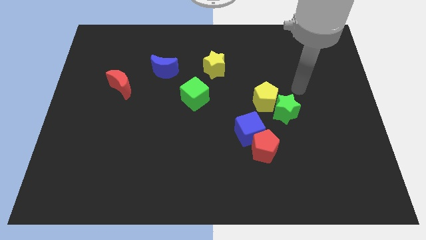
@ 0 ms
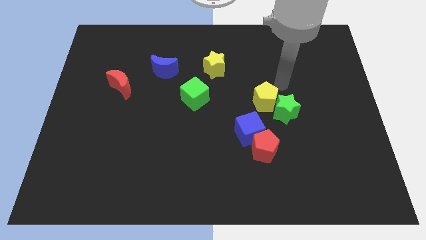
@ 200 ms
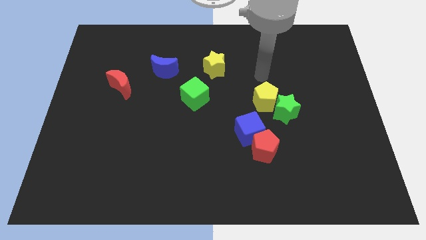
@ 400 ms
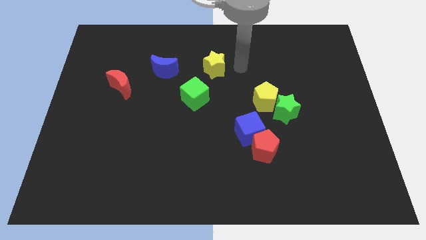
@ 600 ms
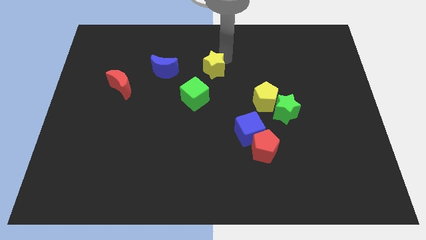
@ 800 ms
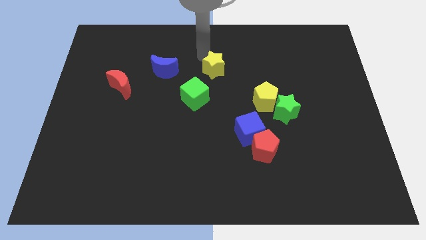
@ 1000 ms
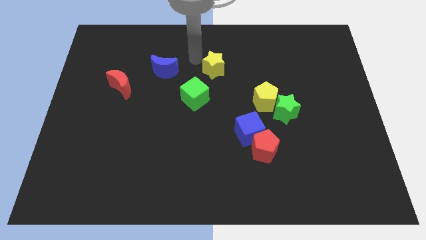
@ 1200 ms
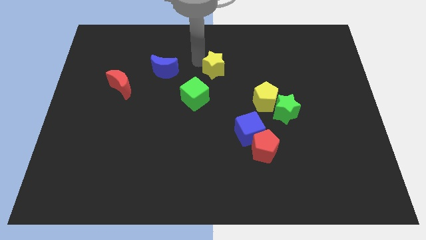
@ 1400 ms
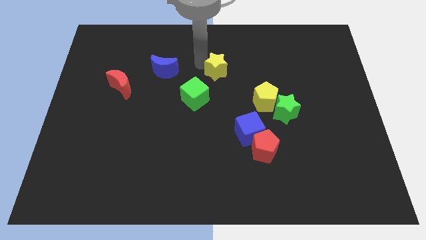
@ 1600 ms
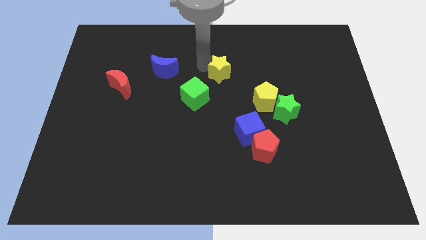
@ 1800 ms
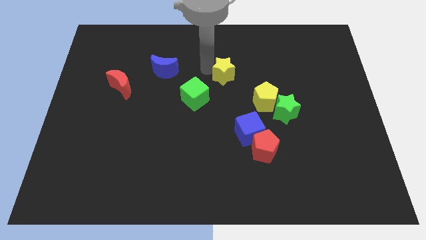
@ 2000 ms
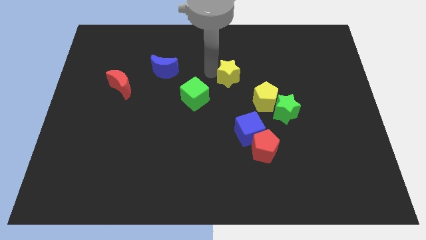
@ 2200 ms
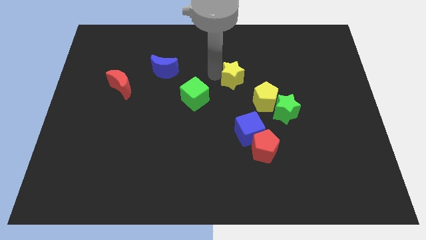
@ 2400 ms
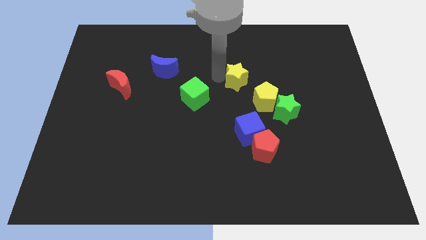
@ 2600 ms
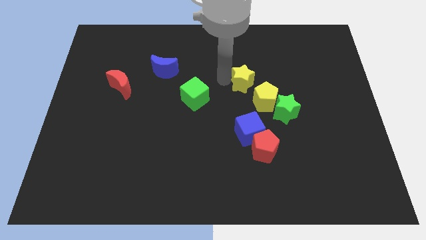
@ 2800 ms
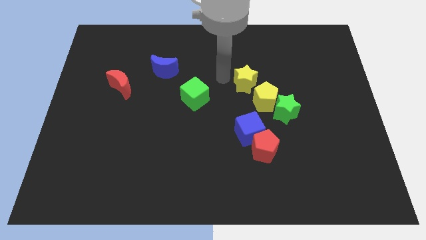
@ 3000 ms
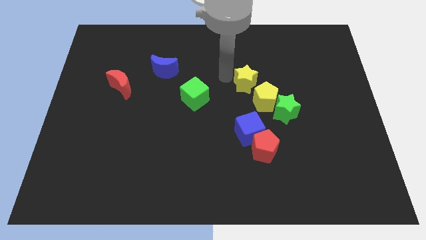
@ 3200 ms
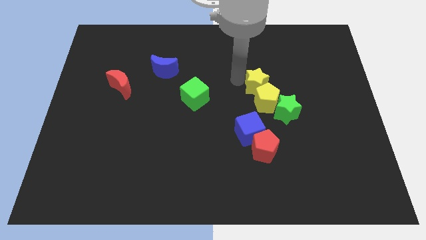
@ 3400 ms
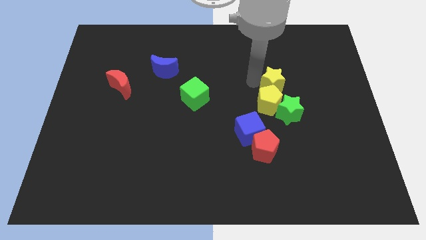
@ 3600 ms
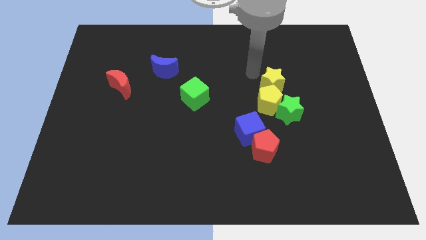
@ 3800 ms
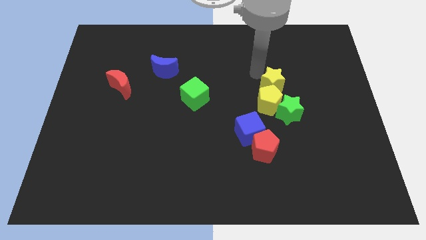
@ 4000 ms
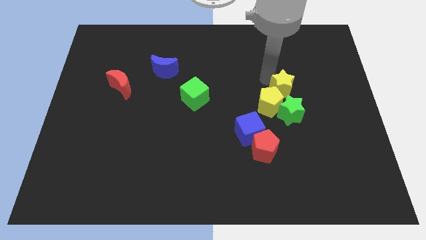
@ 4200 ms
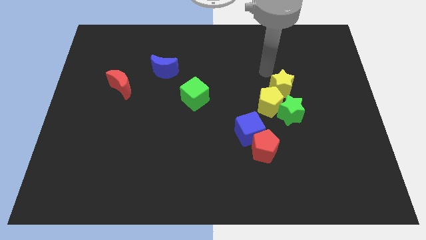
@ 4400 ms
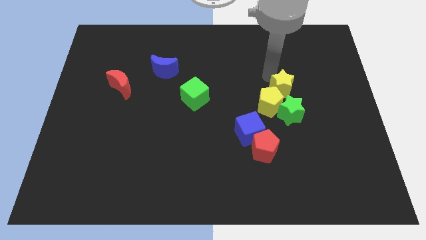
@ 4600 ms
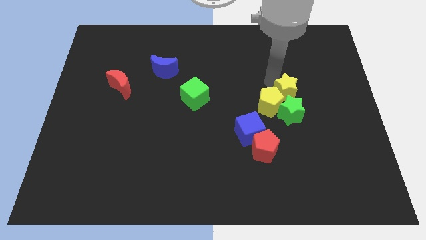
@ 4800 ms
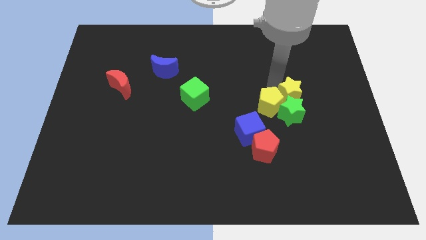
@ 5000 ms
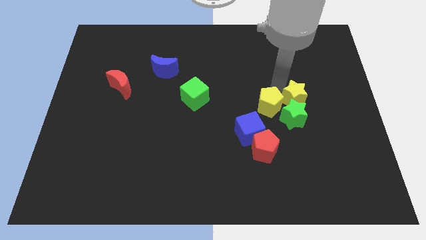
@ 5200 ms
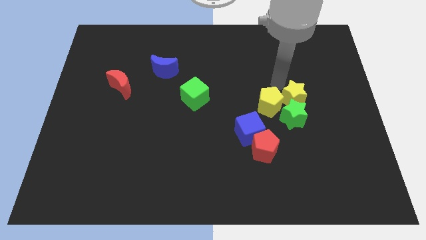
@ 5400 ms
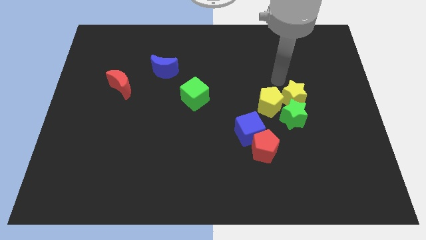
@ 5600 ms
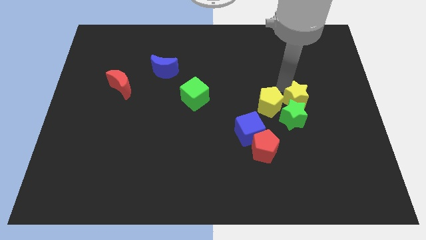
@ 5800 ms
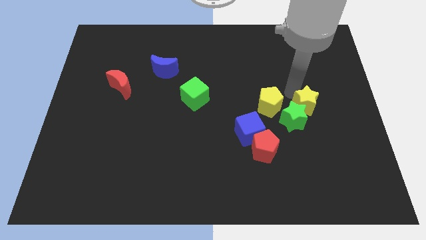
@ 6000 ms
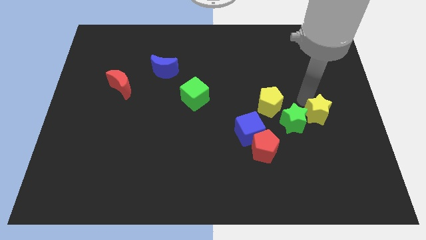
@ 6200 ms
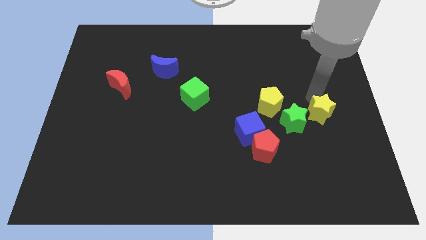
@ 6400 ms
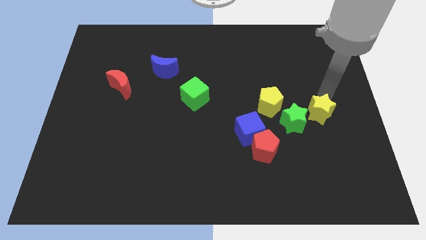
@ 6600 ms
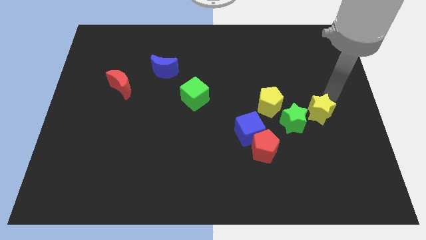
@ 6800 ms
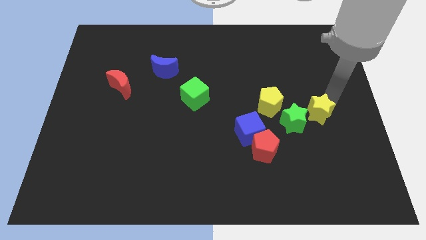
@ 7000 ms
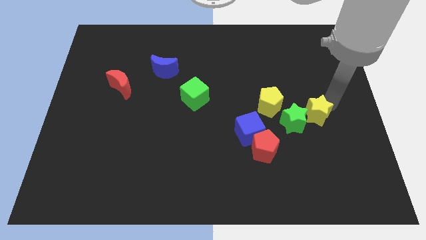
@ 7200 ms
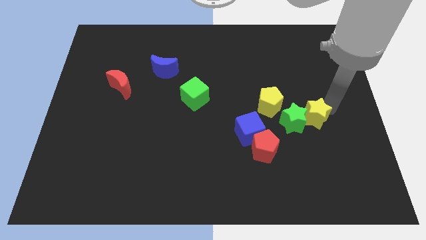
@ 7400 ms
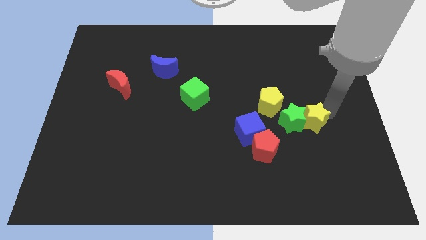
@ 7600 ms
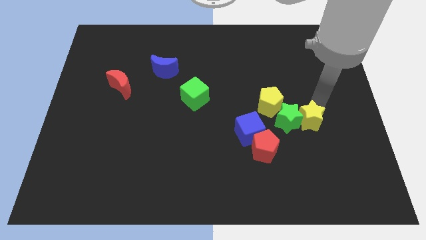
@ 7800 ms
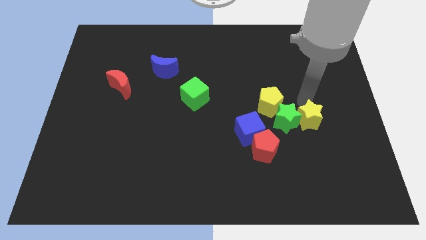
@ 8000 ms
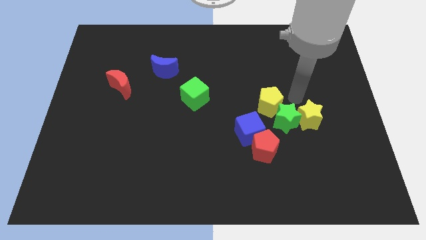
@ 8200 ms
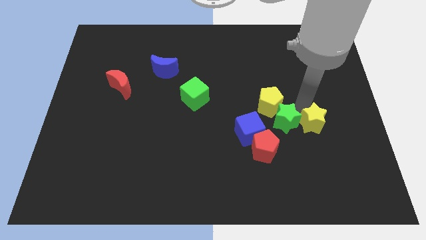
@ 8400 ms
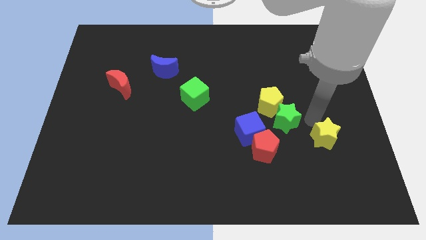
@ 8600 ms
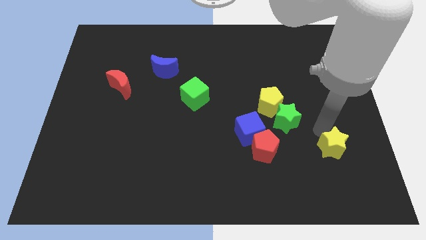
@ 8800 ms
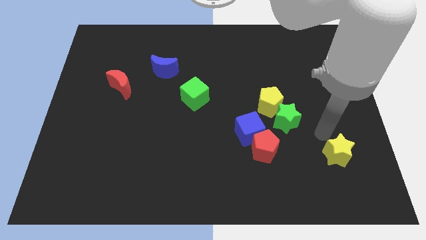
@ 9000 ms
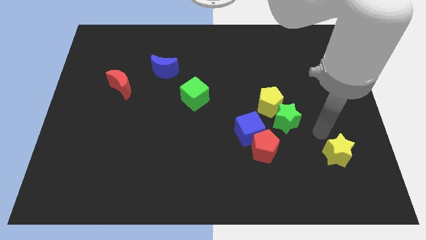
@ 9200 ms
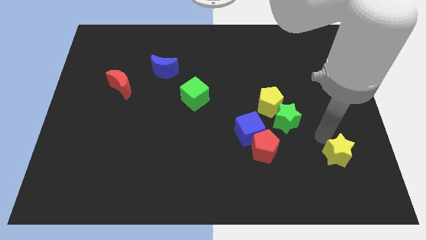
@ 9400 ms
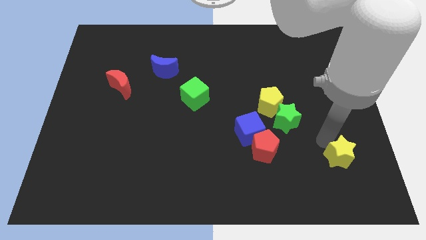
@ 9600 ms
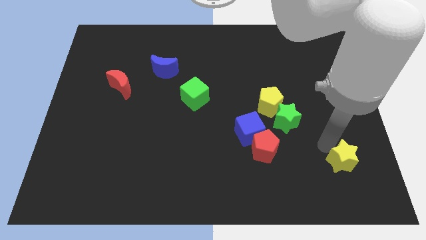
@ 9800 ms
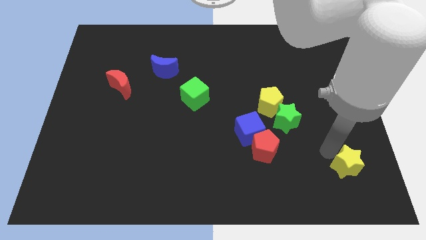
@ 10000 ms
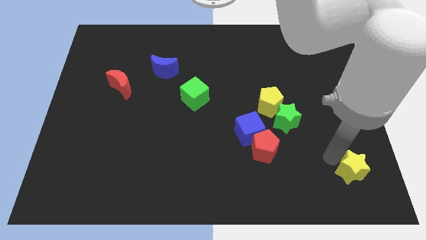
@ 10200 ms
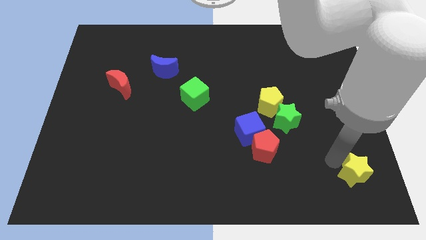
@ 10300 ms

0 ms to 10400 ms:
put the yellow star to the bottom right of the board

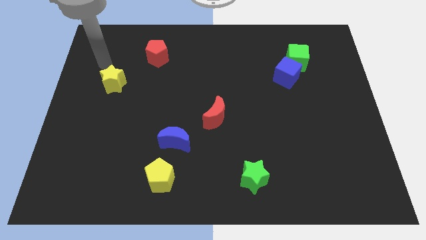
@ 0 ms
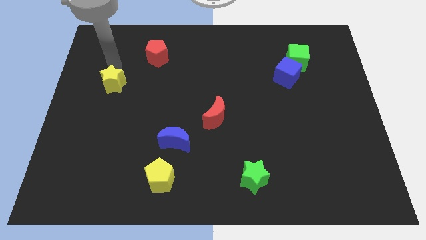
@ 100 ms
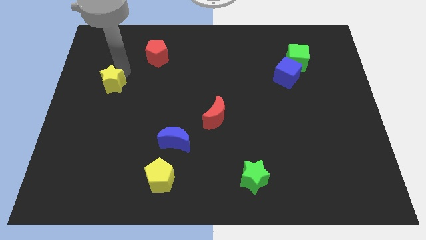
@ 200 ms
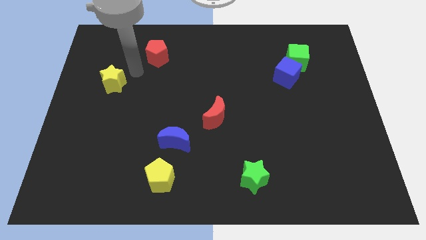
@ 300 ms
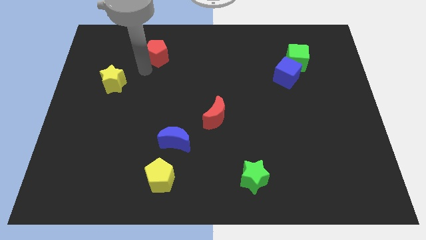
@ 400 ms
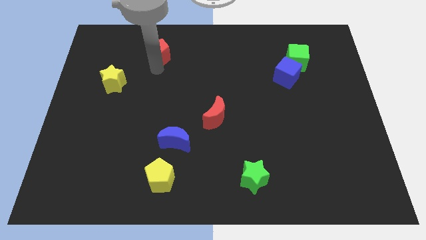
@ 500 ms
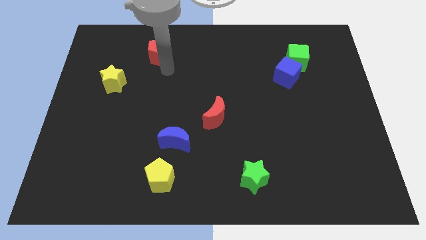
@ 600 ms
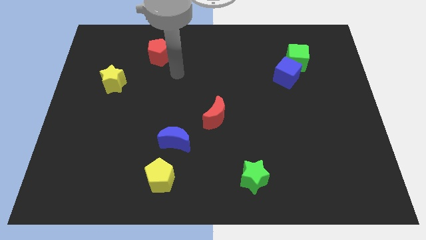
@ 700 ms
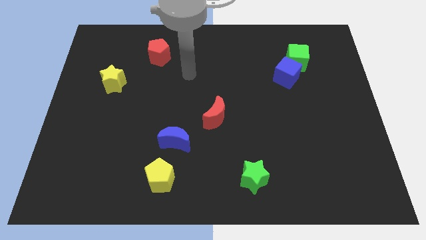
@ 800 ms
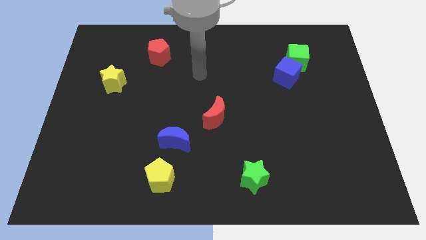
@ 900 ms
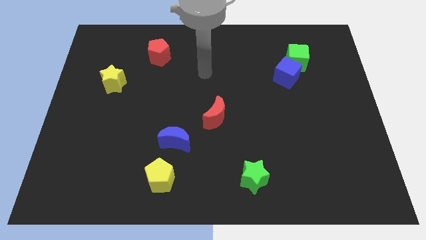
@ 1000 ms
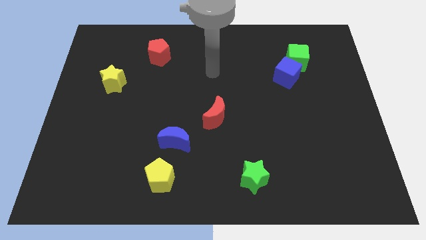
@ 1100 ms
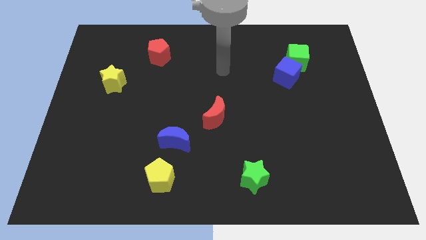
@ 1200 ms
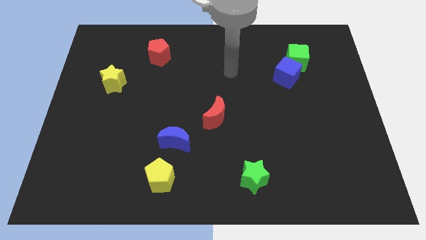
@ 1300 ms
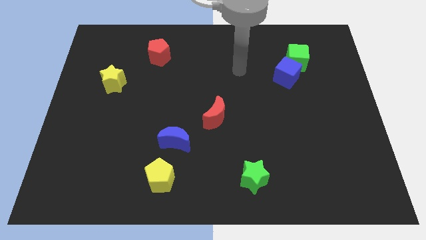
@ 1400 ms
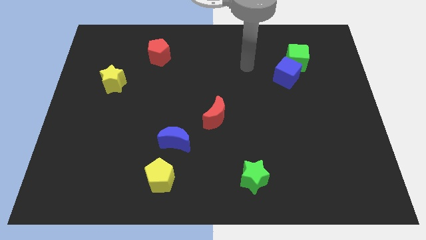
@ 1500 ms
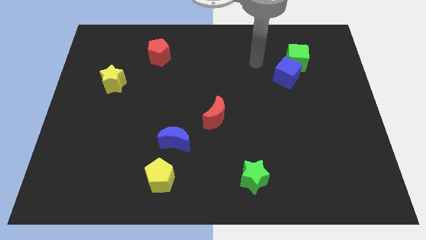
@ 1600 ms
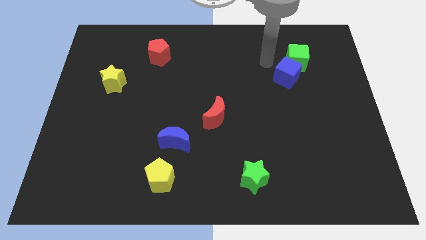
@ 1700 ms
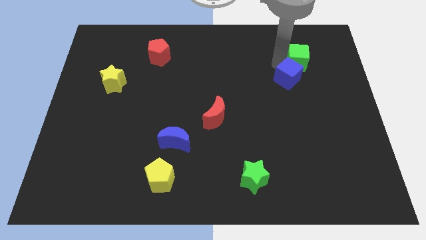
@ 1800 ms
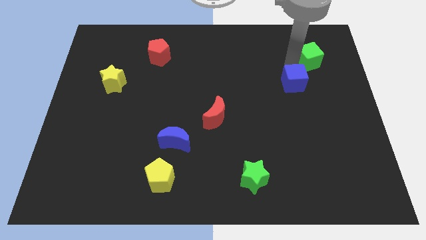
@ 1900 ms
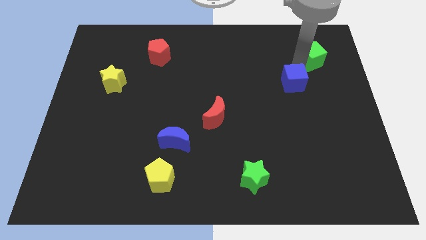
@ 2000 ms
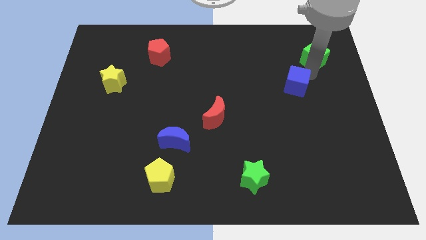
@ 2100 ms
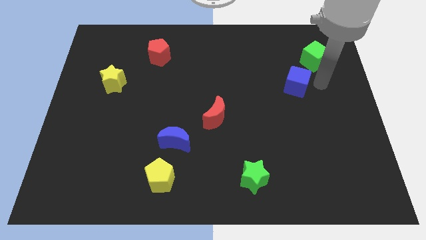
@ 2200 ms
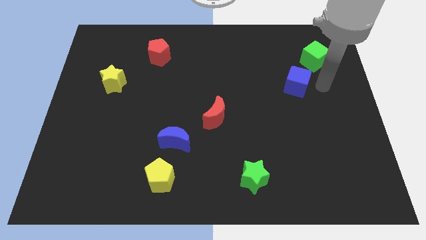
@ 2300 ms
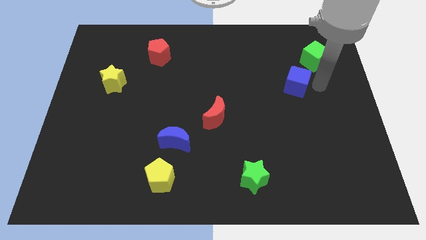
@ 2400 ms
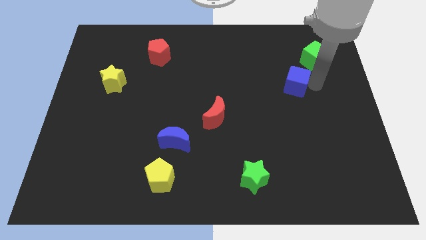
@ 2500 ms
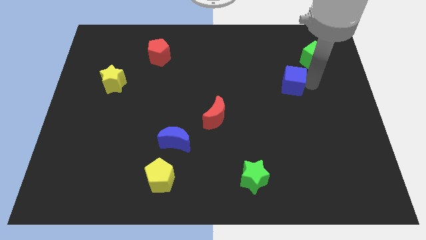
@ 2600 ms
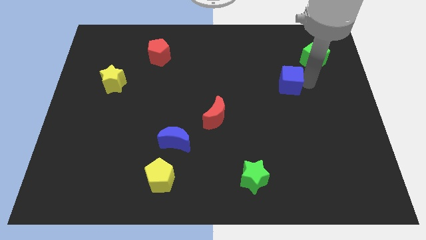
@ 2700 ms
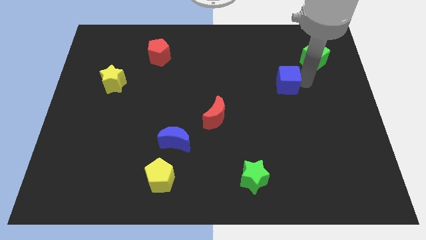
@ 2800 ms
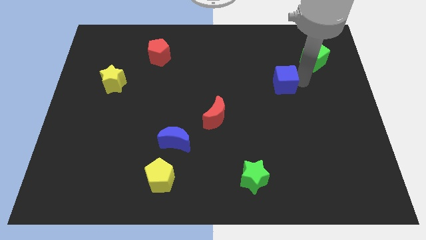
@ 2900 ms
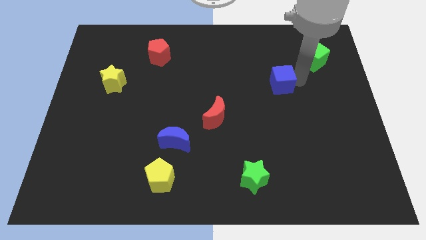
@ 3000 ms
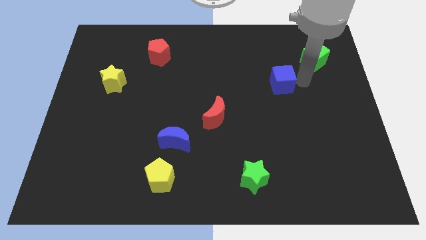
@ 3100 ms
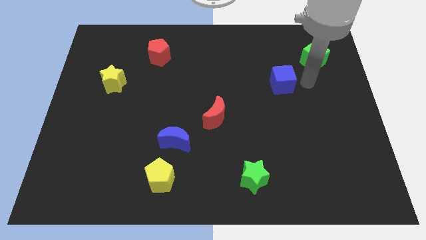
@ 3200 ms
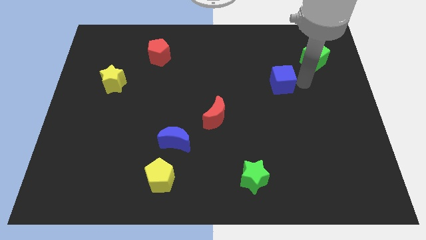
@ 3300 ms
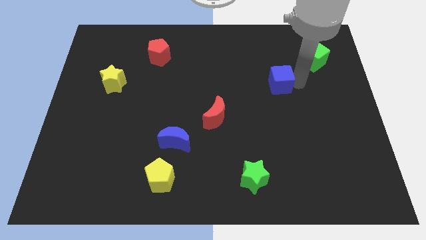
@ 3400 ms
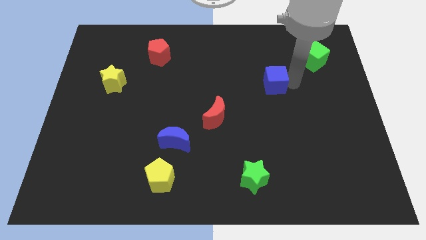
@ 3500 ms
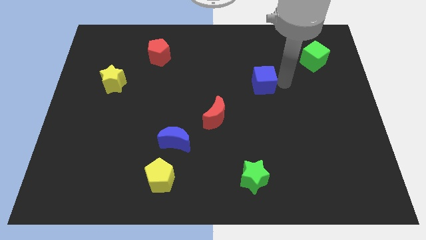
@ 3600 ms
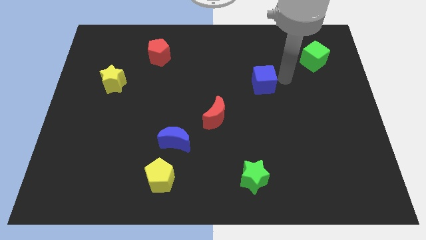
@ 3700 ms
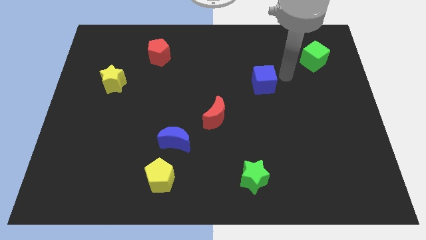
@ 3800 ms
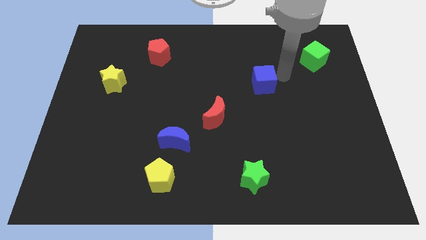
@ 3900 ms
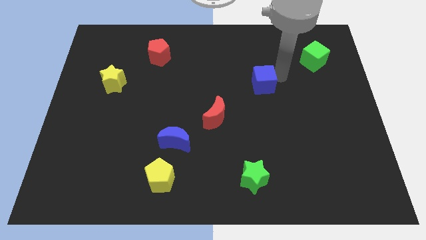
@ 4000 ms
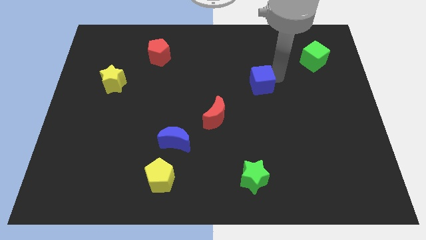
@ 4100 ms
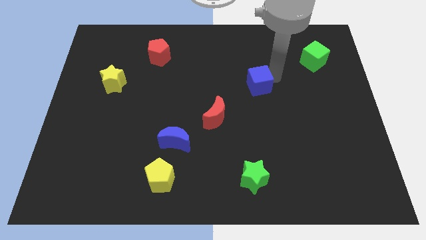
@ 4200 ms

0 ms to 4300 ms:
slide the blue cube to the middle of the board
